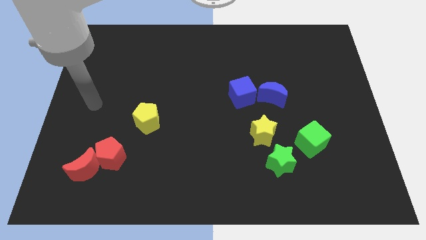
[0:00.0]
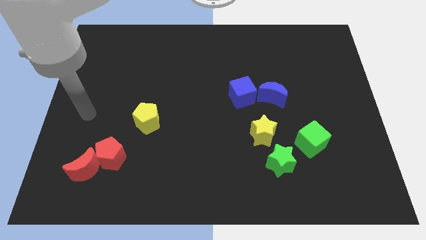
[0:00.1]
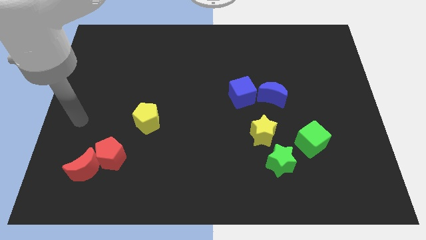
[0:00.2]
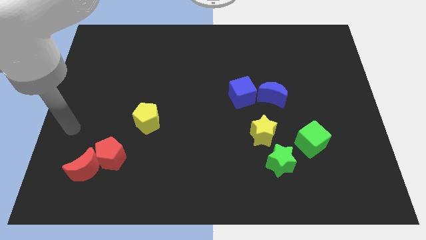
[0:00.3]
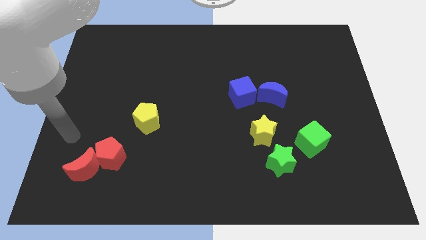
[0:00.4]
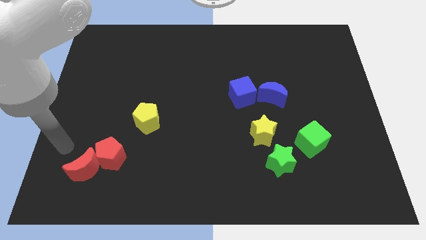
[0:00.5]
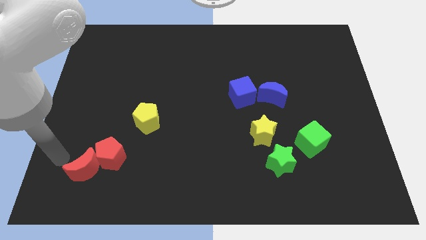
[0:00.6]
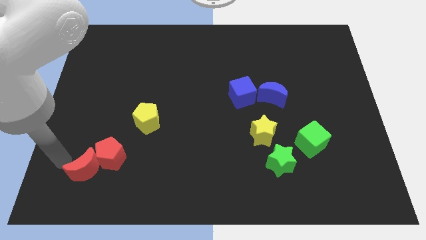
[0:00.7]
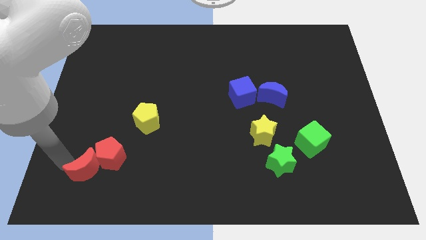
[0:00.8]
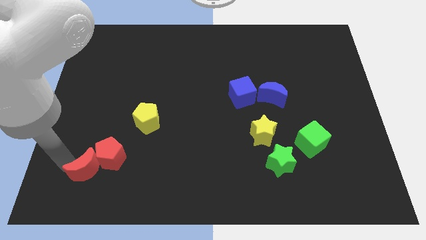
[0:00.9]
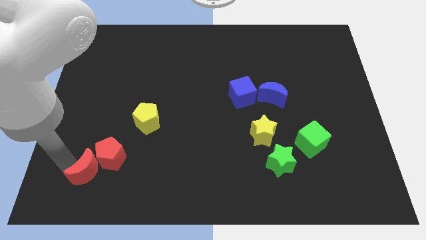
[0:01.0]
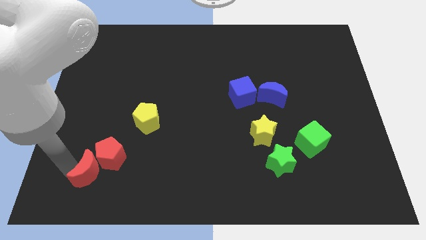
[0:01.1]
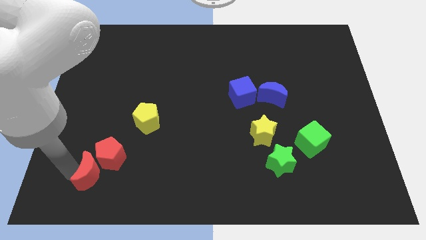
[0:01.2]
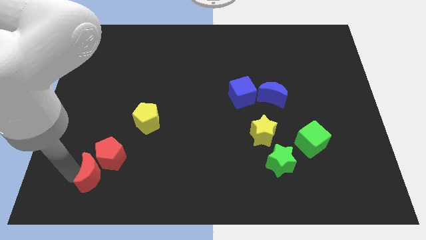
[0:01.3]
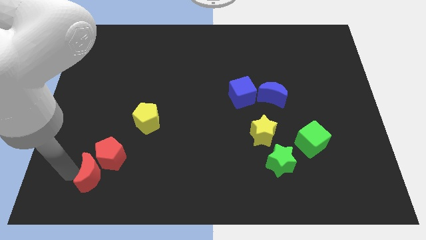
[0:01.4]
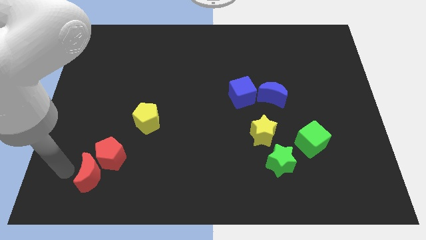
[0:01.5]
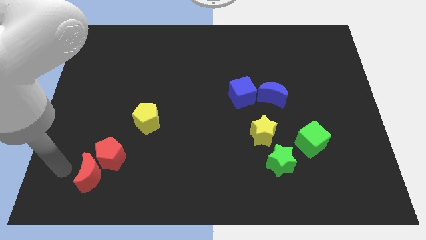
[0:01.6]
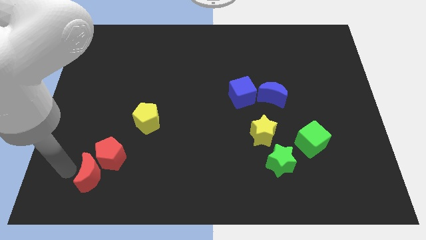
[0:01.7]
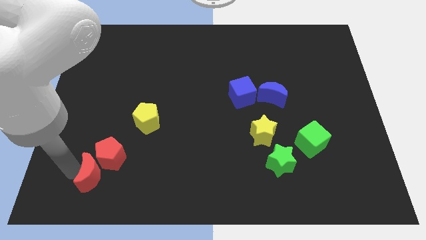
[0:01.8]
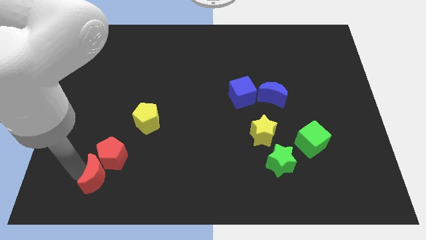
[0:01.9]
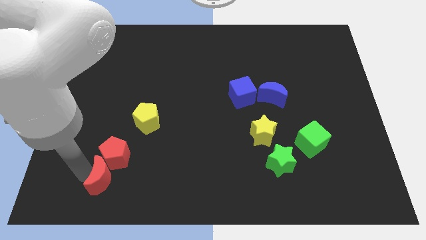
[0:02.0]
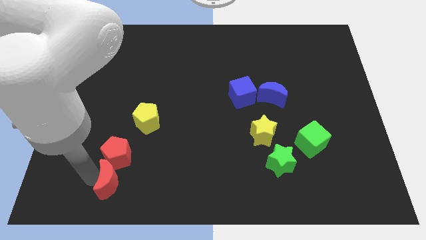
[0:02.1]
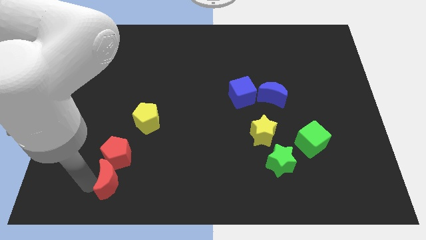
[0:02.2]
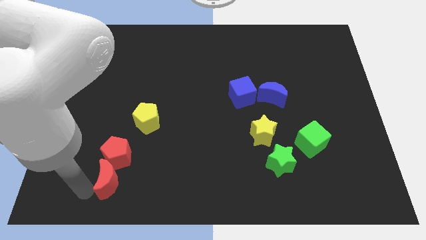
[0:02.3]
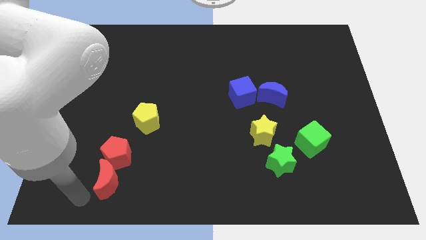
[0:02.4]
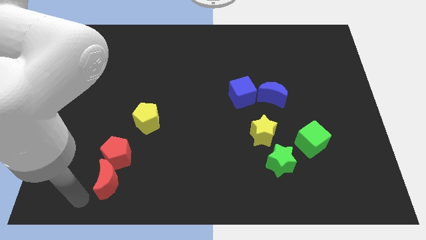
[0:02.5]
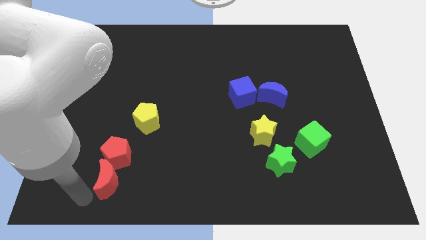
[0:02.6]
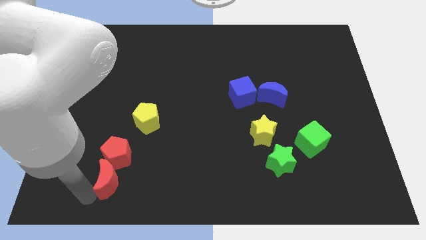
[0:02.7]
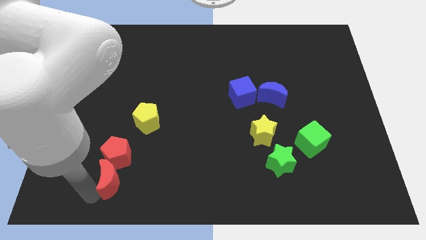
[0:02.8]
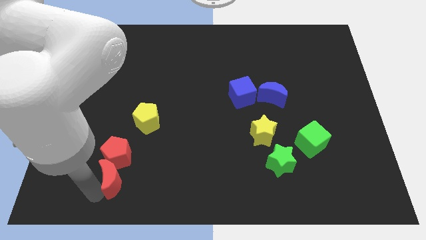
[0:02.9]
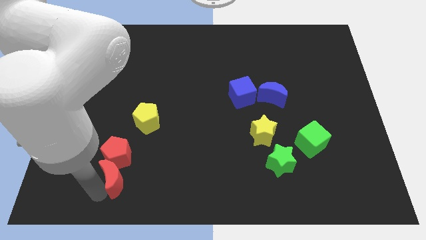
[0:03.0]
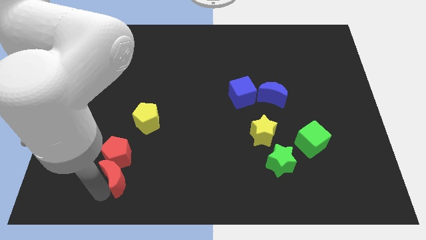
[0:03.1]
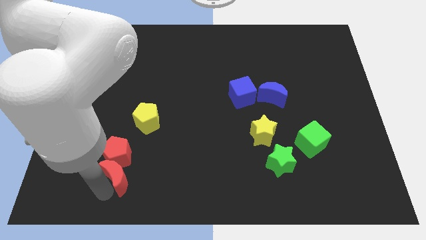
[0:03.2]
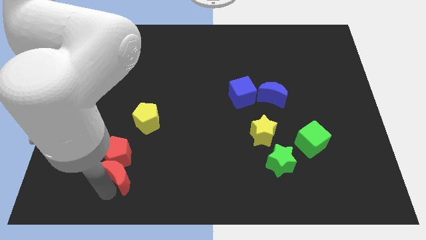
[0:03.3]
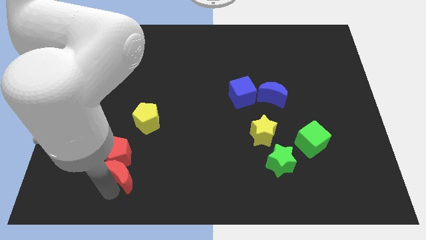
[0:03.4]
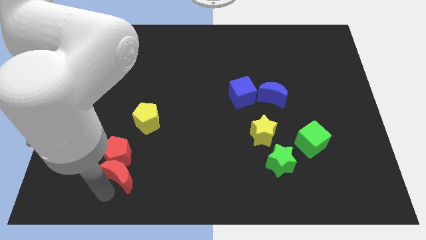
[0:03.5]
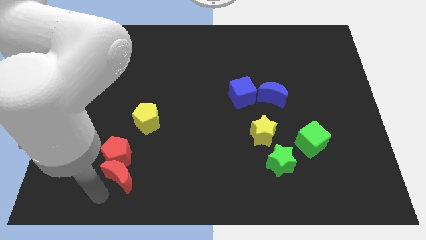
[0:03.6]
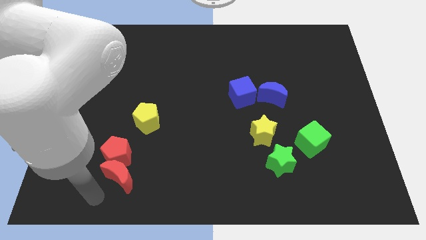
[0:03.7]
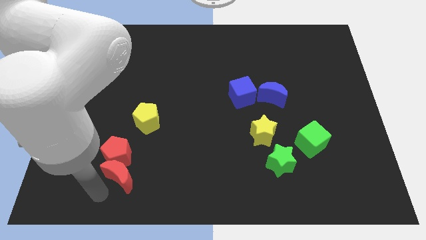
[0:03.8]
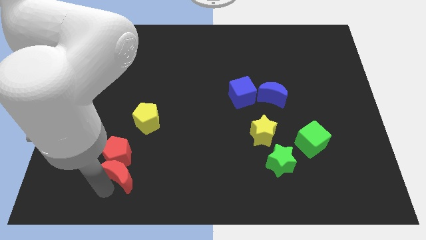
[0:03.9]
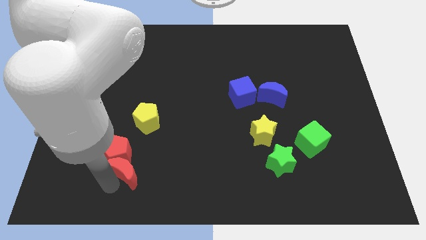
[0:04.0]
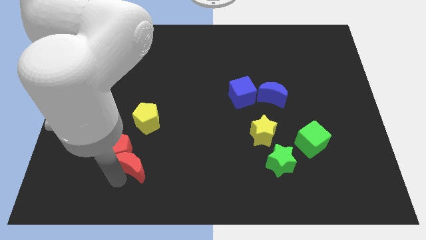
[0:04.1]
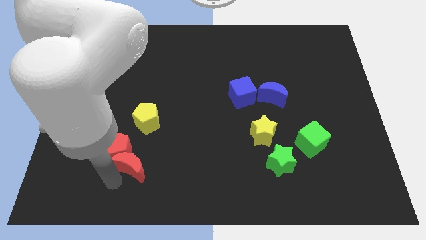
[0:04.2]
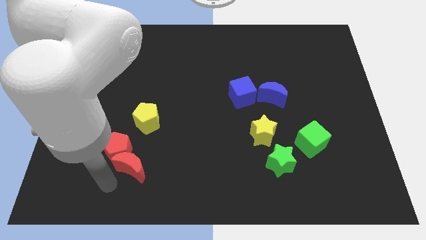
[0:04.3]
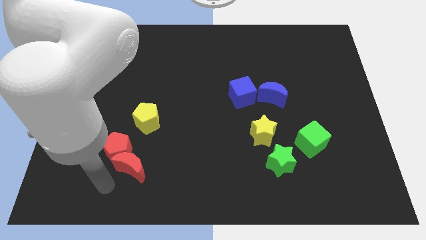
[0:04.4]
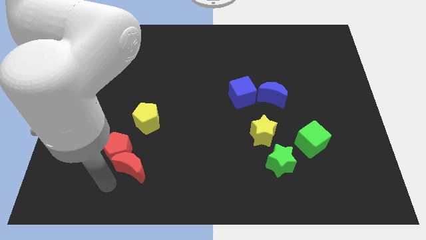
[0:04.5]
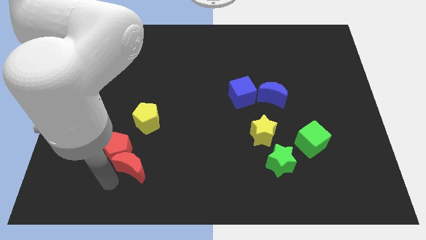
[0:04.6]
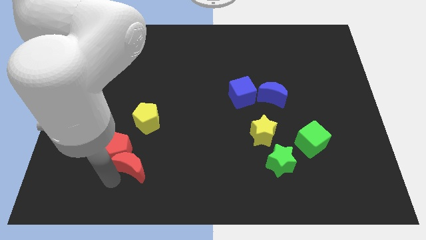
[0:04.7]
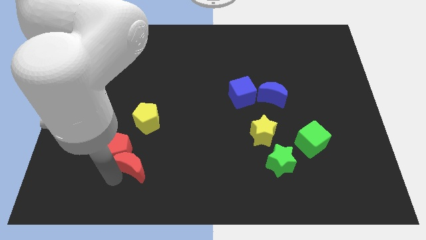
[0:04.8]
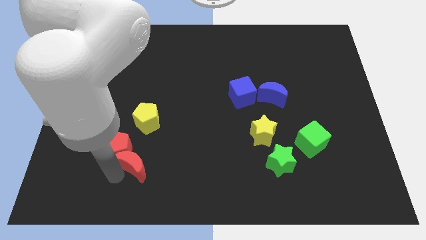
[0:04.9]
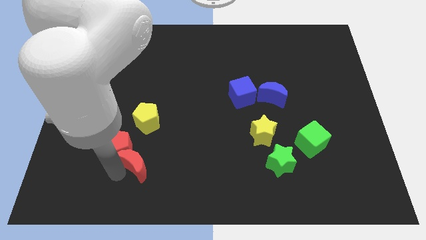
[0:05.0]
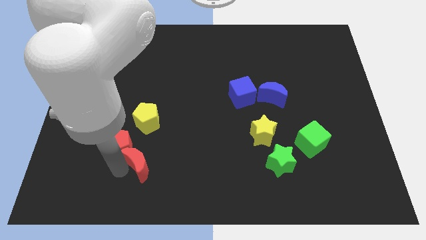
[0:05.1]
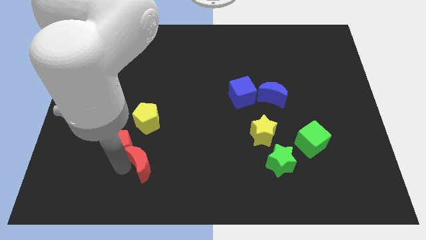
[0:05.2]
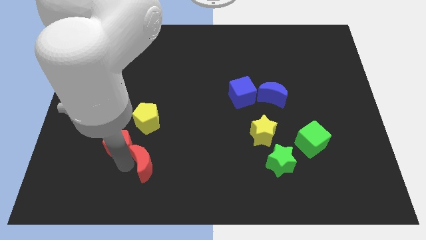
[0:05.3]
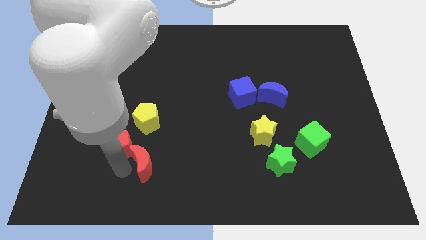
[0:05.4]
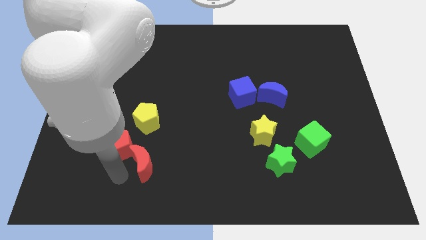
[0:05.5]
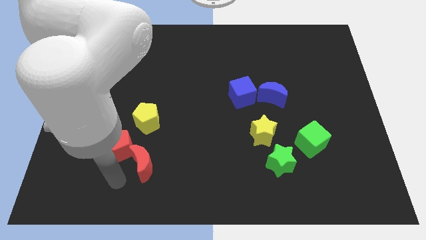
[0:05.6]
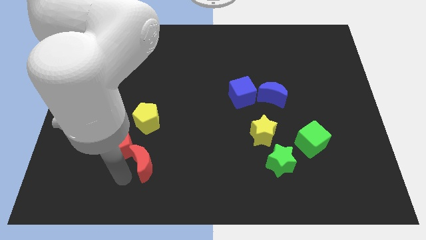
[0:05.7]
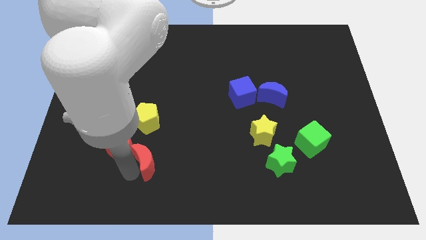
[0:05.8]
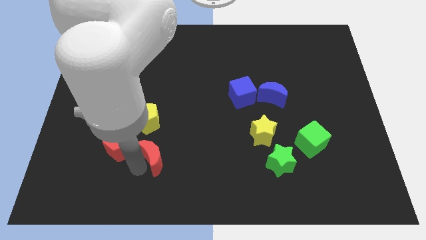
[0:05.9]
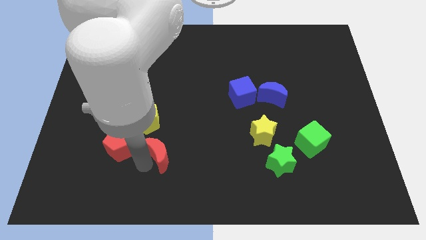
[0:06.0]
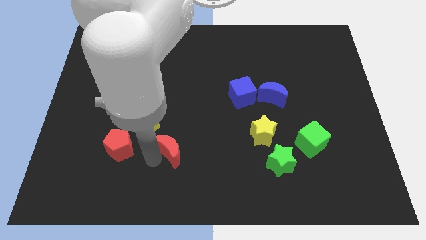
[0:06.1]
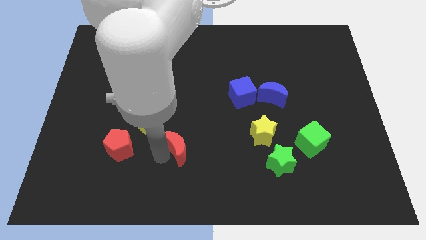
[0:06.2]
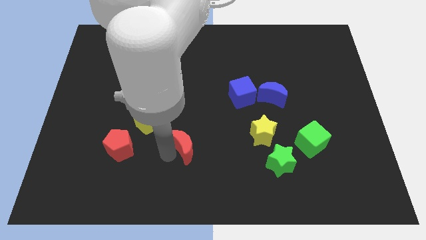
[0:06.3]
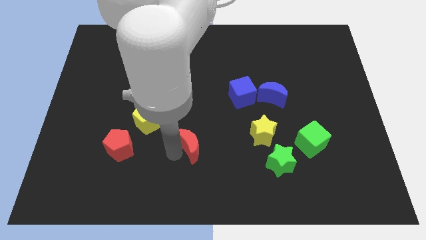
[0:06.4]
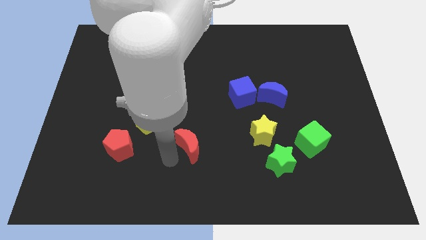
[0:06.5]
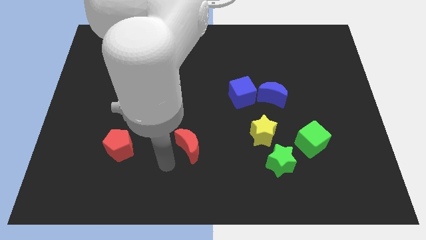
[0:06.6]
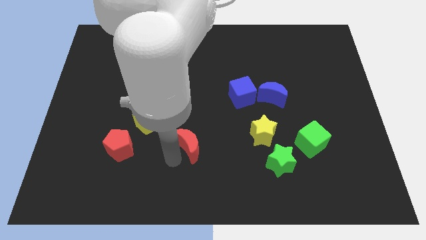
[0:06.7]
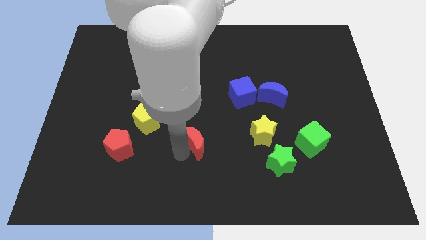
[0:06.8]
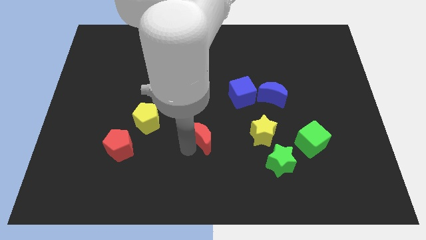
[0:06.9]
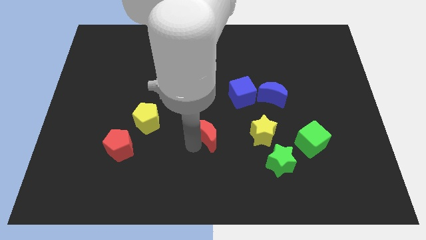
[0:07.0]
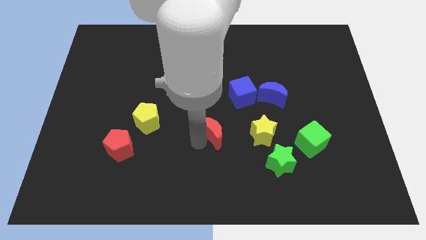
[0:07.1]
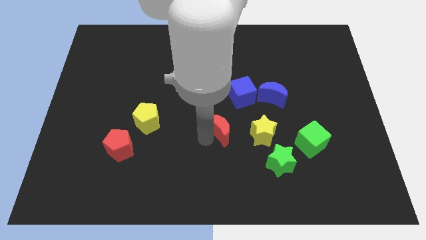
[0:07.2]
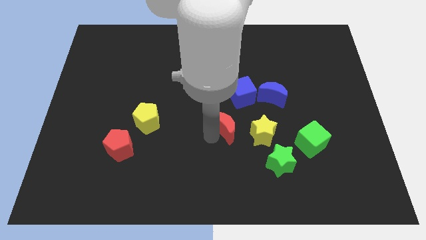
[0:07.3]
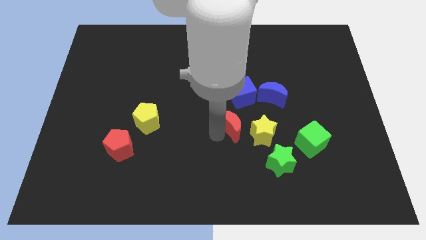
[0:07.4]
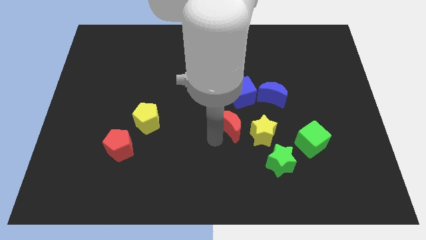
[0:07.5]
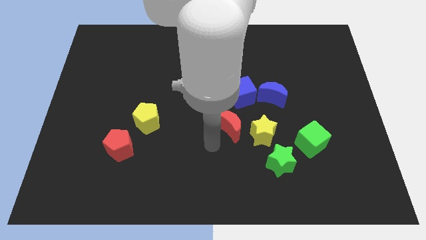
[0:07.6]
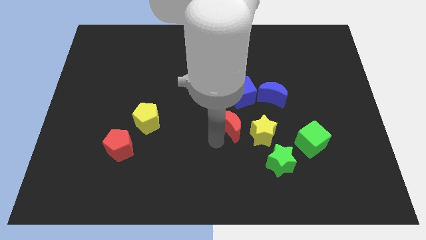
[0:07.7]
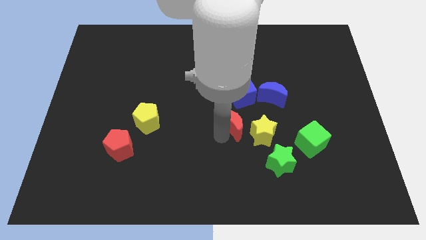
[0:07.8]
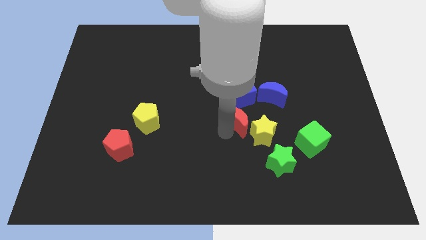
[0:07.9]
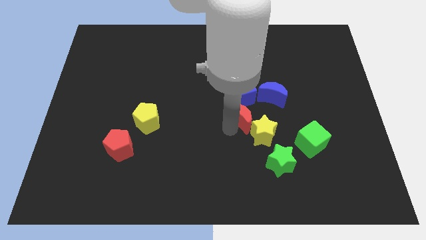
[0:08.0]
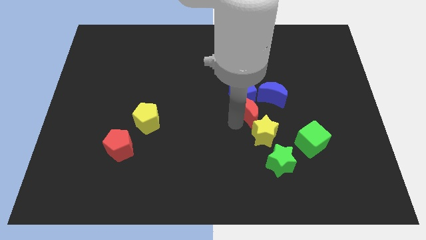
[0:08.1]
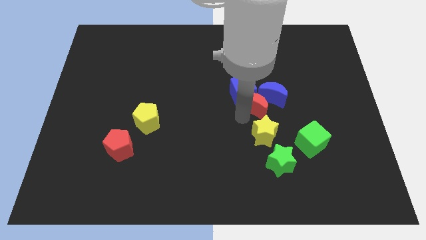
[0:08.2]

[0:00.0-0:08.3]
put the red moon next to the blue moon
